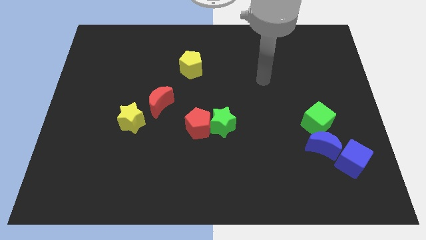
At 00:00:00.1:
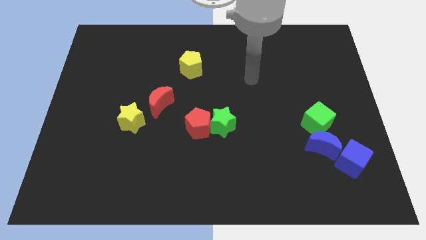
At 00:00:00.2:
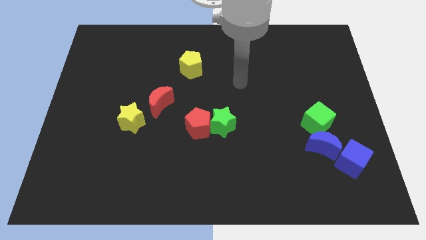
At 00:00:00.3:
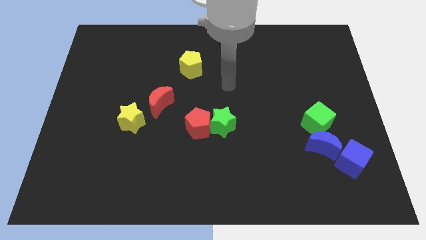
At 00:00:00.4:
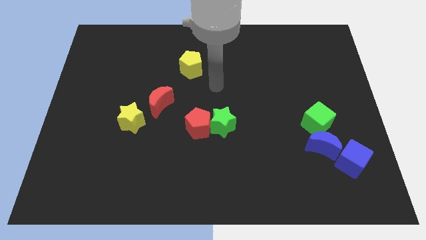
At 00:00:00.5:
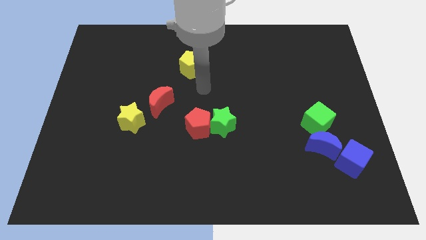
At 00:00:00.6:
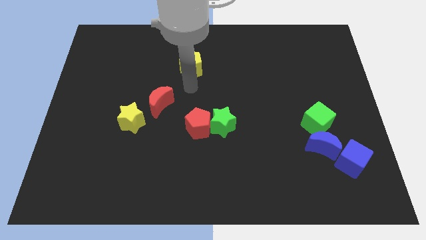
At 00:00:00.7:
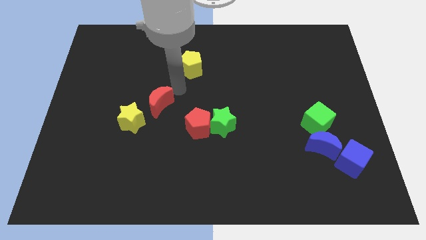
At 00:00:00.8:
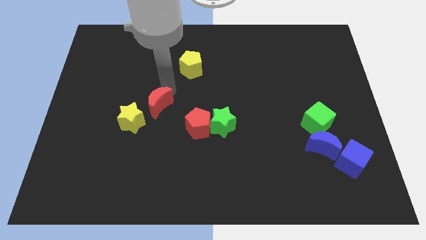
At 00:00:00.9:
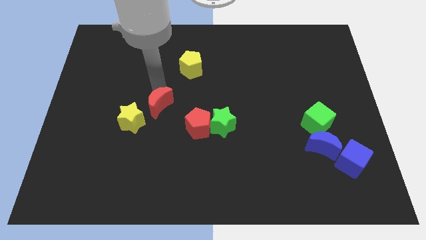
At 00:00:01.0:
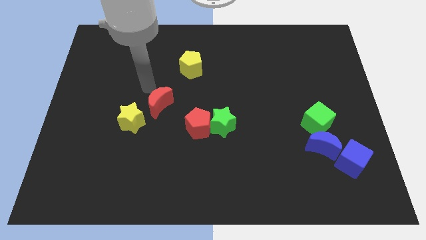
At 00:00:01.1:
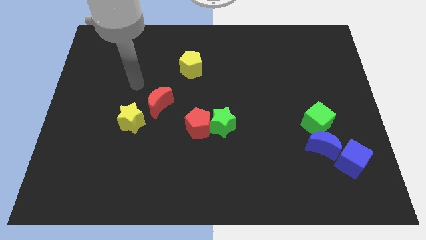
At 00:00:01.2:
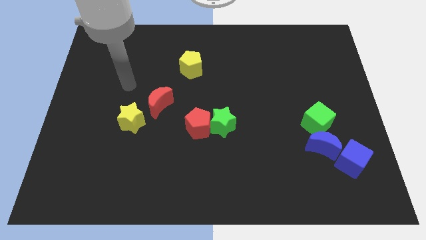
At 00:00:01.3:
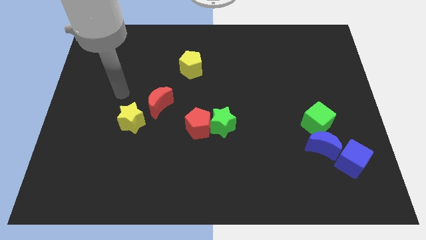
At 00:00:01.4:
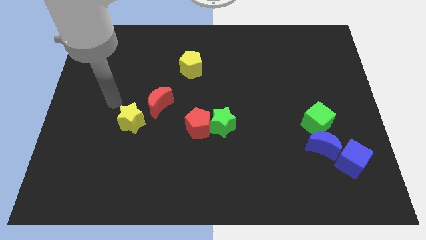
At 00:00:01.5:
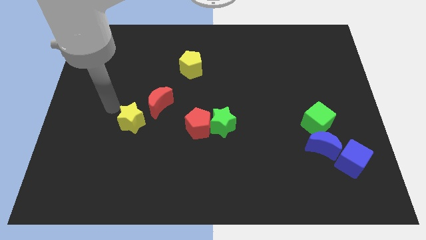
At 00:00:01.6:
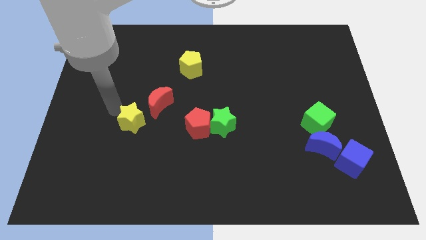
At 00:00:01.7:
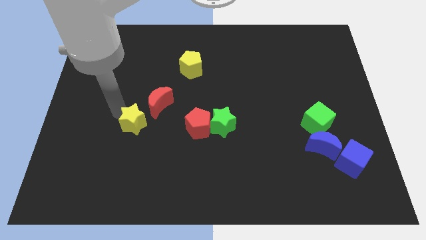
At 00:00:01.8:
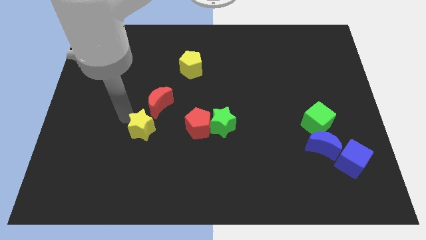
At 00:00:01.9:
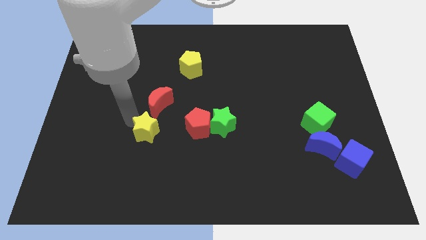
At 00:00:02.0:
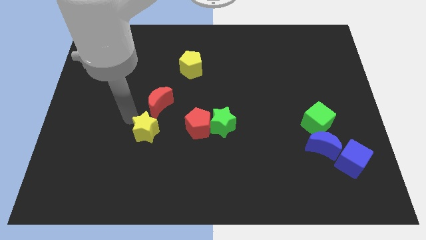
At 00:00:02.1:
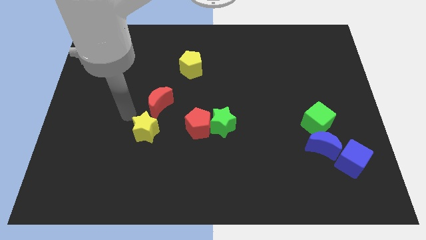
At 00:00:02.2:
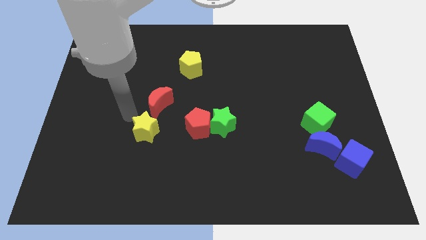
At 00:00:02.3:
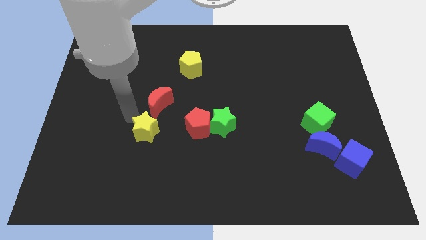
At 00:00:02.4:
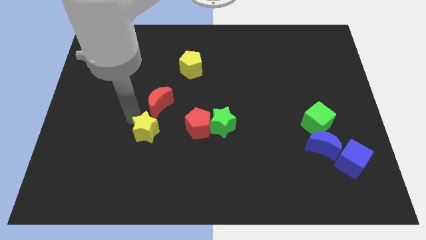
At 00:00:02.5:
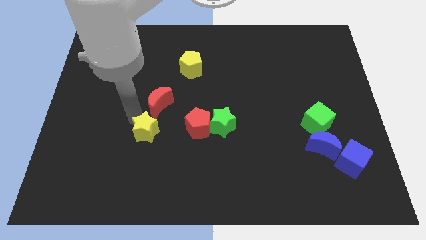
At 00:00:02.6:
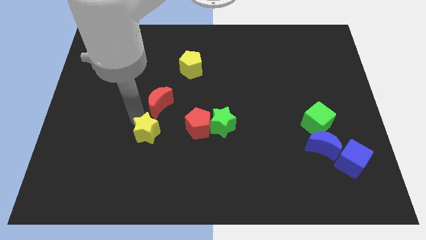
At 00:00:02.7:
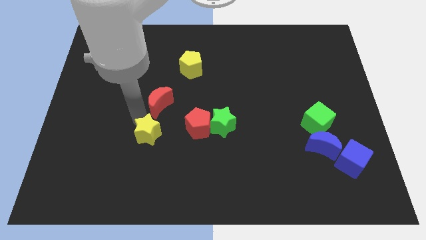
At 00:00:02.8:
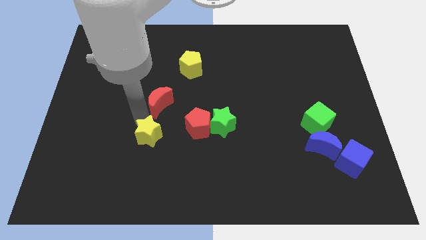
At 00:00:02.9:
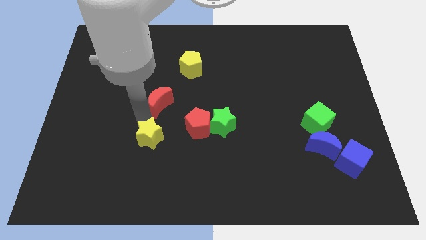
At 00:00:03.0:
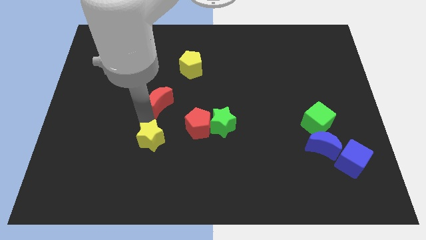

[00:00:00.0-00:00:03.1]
move the yellow star diagonally down and right somewhat

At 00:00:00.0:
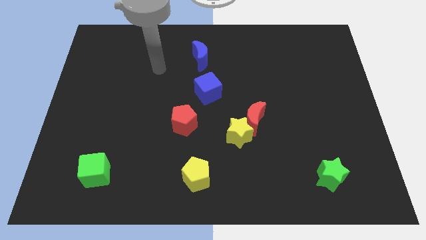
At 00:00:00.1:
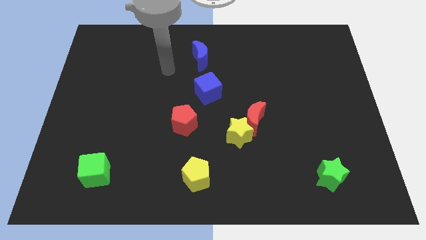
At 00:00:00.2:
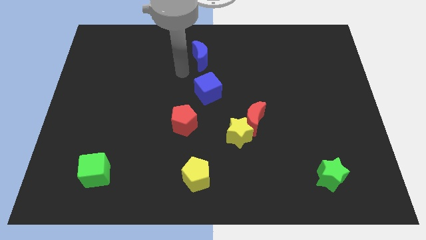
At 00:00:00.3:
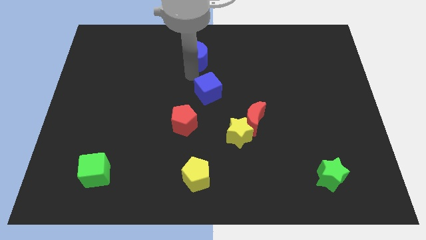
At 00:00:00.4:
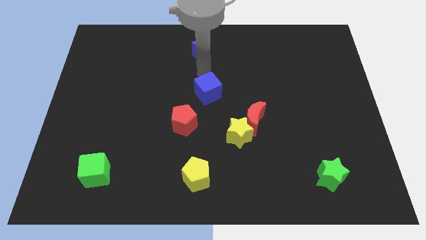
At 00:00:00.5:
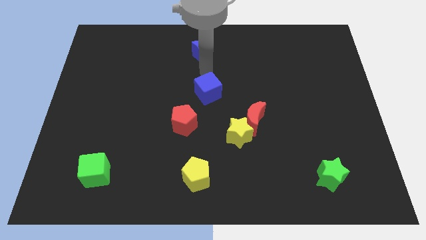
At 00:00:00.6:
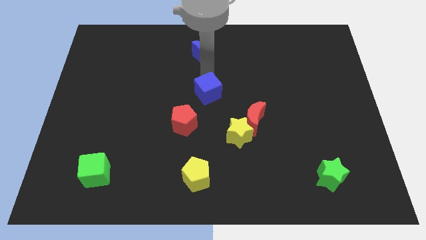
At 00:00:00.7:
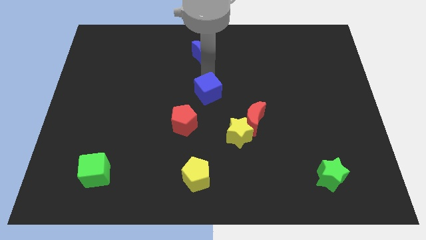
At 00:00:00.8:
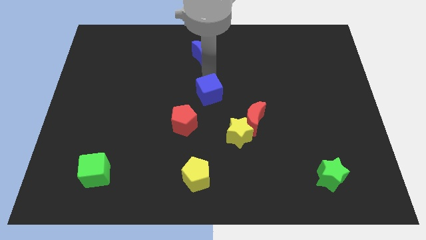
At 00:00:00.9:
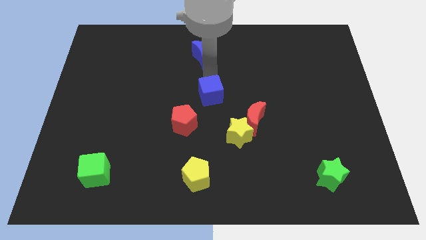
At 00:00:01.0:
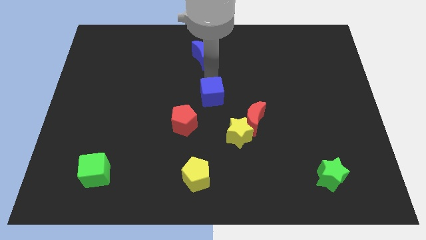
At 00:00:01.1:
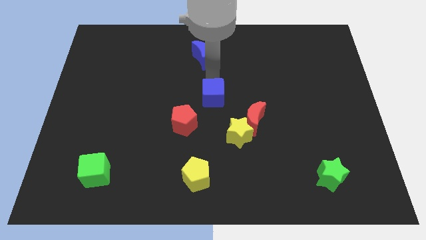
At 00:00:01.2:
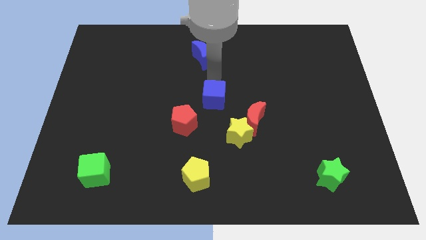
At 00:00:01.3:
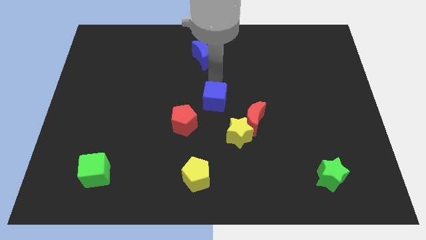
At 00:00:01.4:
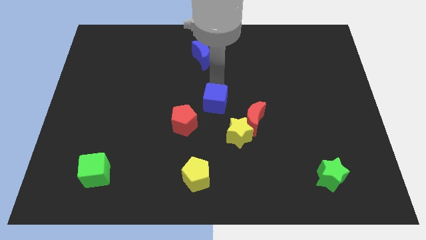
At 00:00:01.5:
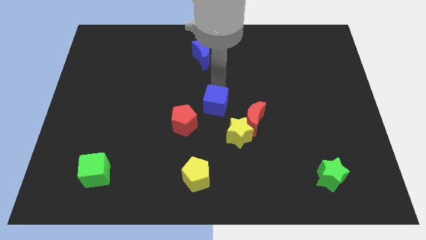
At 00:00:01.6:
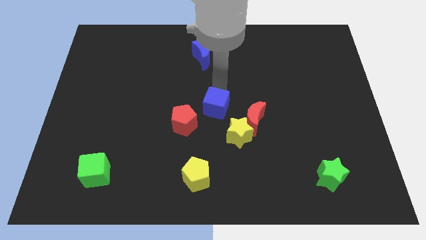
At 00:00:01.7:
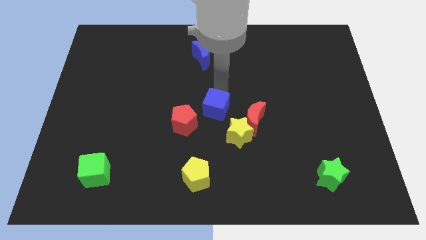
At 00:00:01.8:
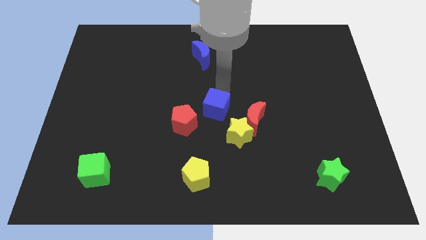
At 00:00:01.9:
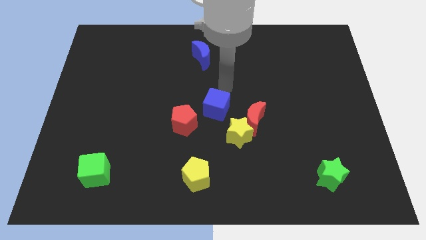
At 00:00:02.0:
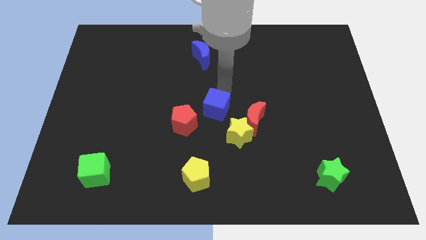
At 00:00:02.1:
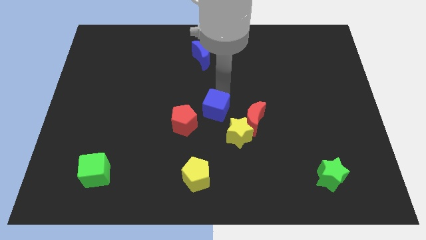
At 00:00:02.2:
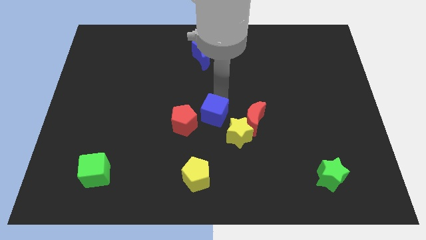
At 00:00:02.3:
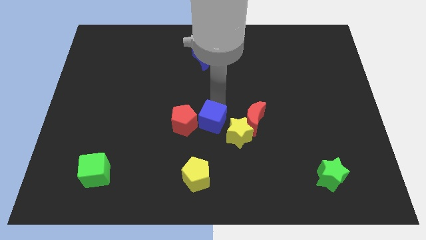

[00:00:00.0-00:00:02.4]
slide the blue cube a bit downwards

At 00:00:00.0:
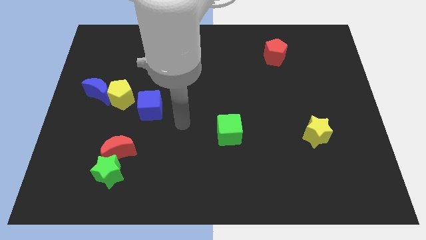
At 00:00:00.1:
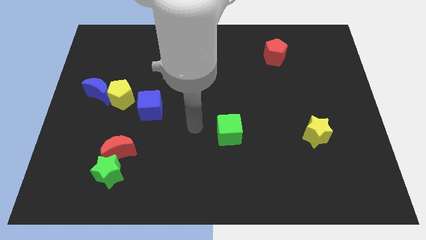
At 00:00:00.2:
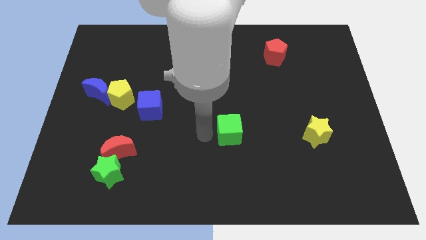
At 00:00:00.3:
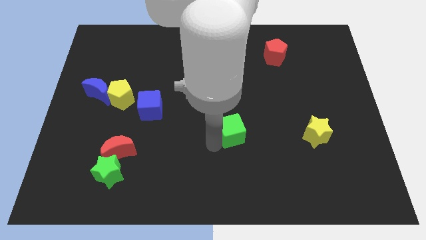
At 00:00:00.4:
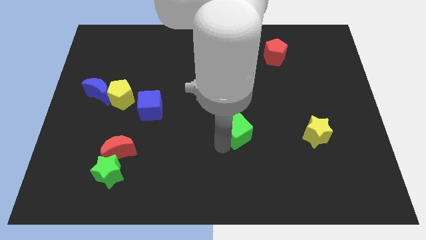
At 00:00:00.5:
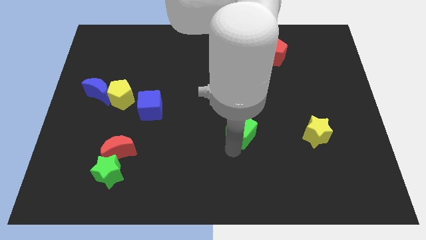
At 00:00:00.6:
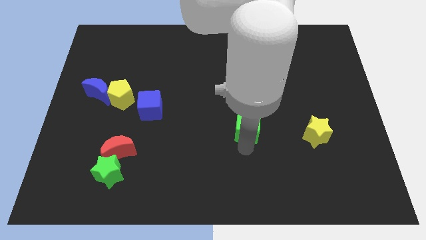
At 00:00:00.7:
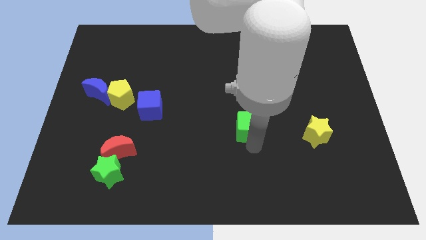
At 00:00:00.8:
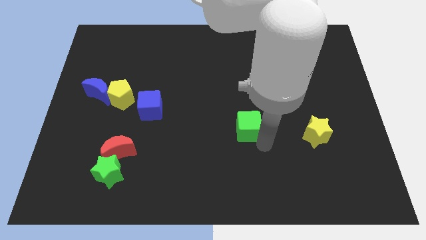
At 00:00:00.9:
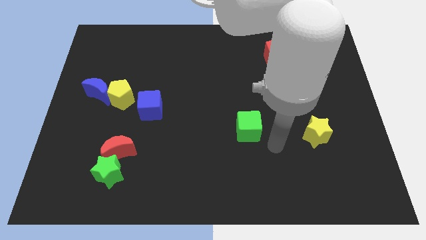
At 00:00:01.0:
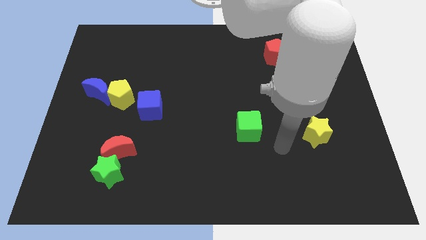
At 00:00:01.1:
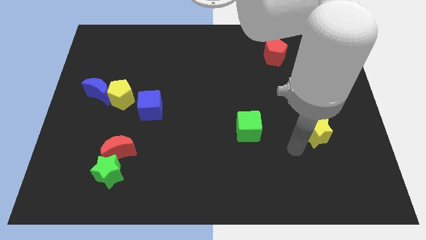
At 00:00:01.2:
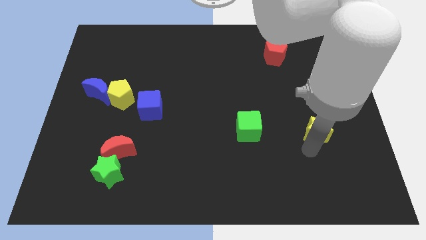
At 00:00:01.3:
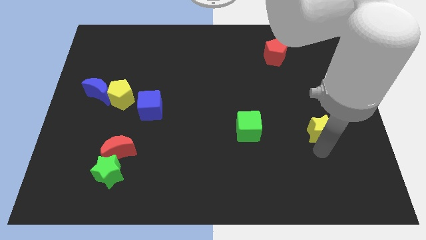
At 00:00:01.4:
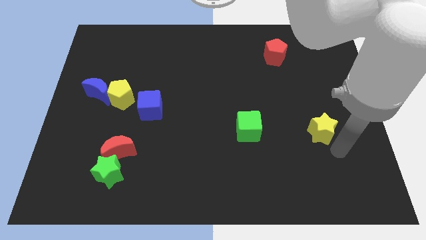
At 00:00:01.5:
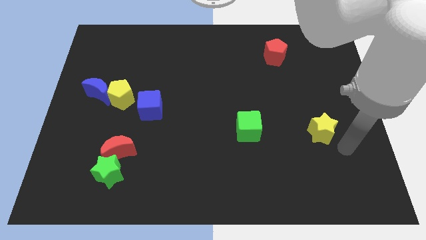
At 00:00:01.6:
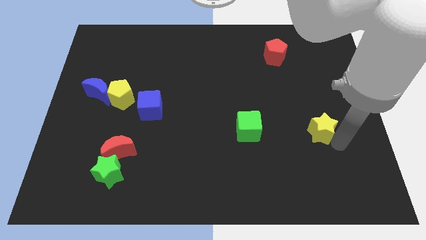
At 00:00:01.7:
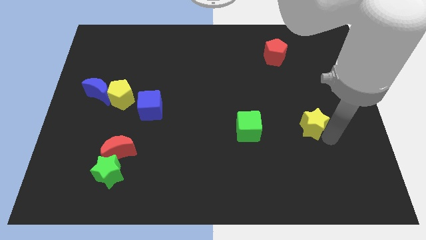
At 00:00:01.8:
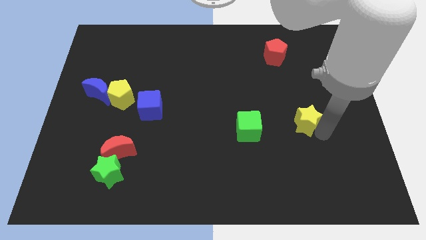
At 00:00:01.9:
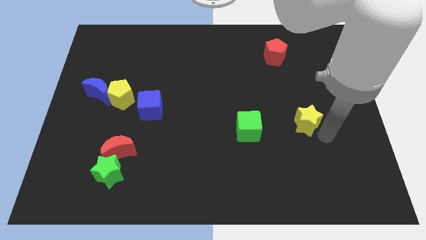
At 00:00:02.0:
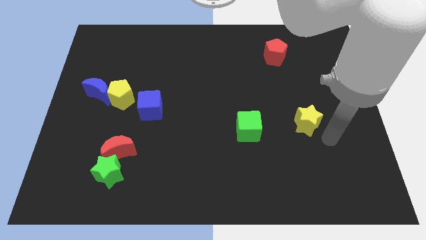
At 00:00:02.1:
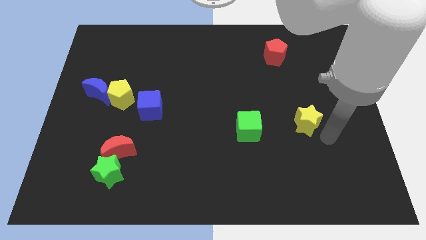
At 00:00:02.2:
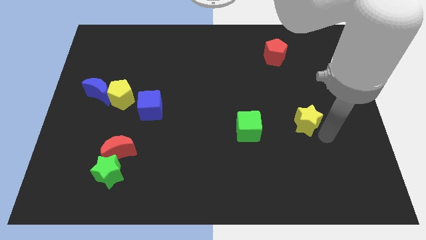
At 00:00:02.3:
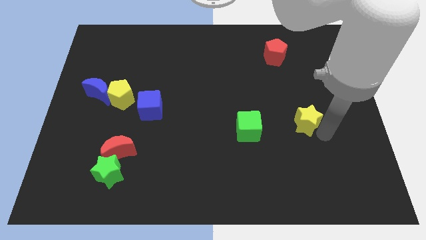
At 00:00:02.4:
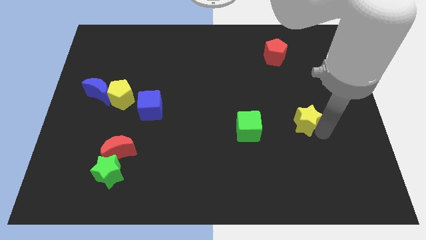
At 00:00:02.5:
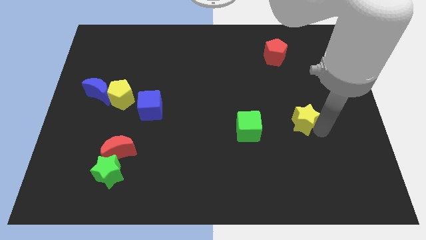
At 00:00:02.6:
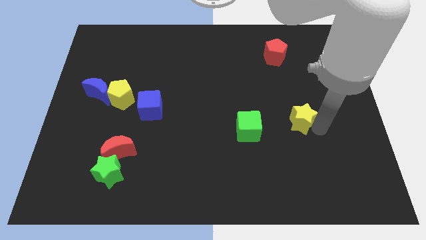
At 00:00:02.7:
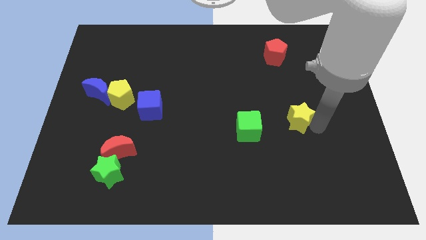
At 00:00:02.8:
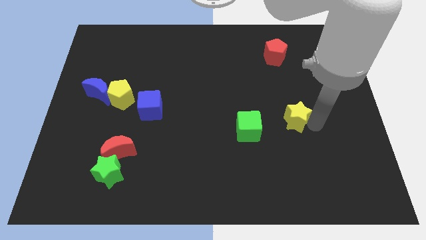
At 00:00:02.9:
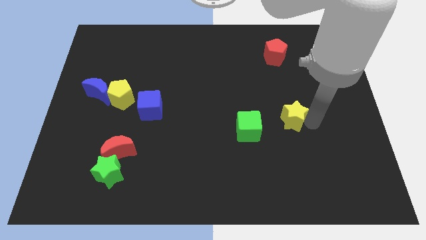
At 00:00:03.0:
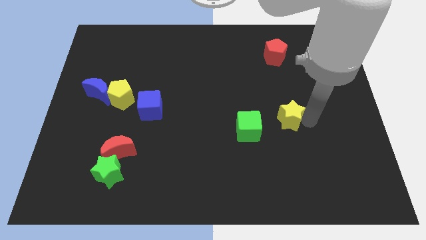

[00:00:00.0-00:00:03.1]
slide the yellow star up and left diagonally a little
